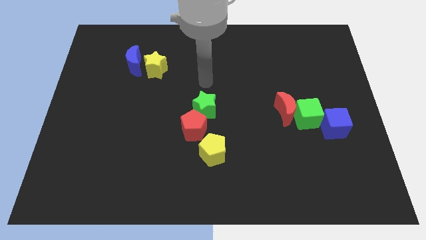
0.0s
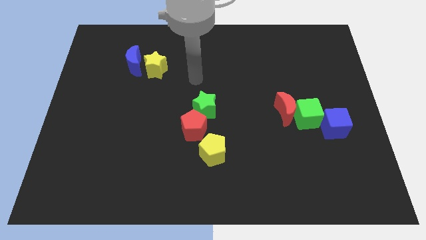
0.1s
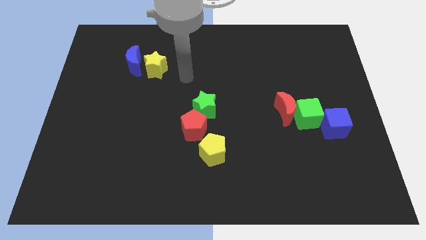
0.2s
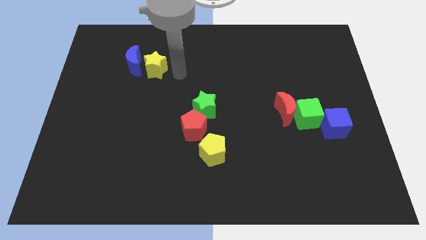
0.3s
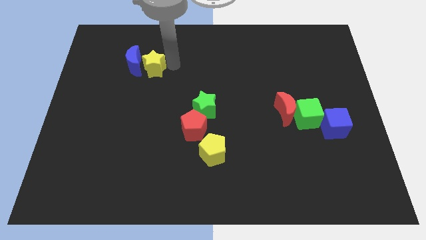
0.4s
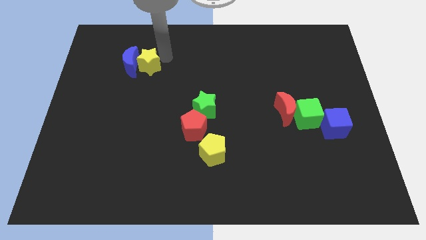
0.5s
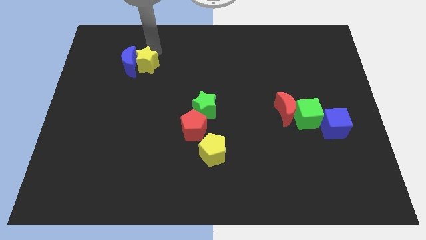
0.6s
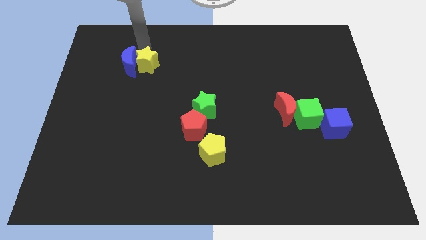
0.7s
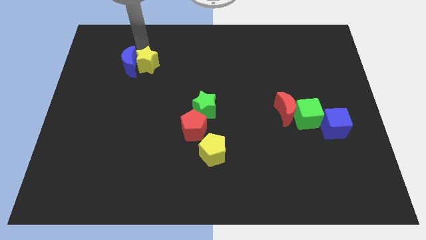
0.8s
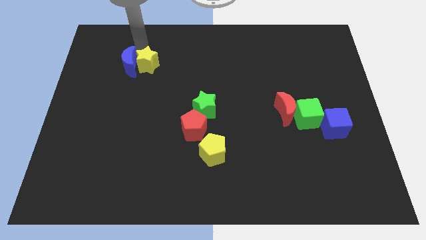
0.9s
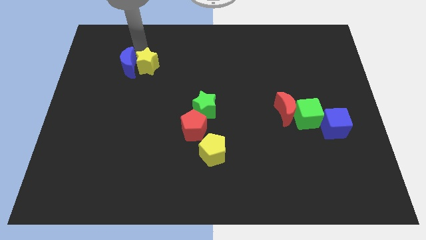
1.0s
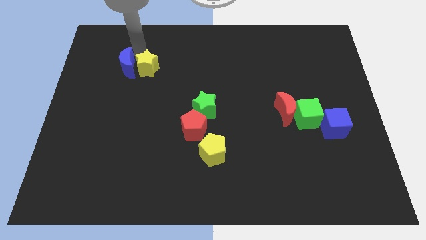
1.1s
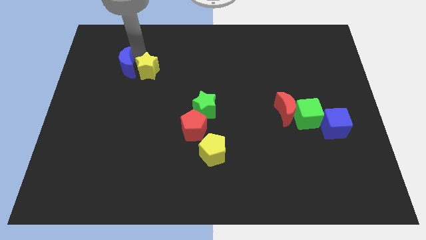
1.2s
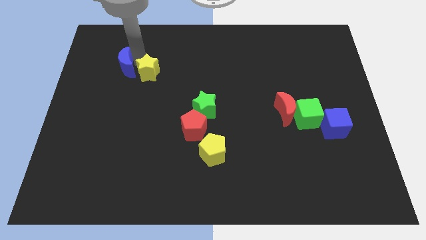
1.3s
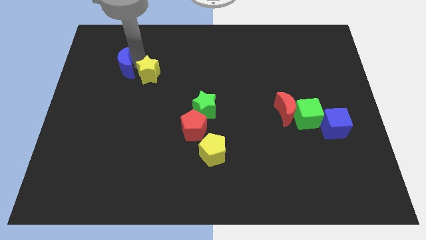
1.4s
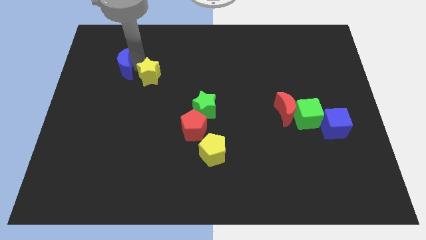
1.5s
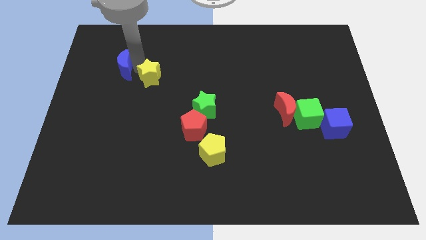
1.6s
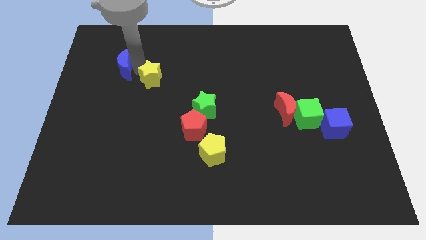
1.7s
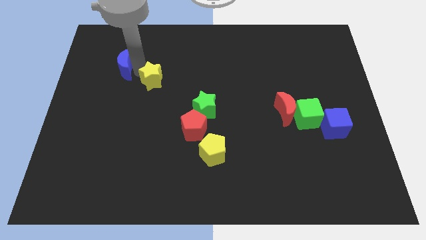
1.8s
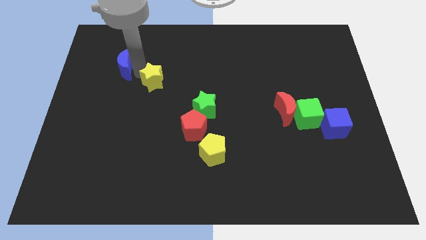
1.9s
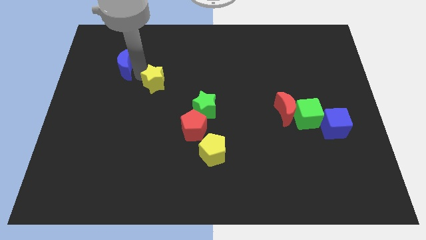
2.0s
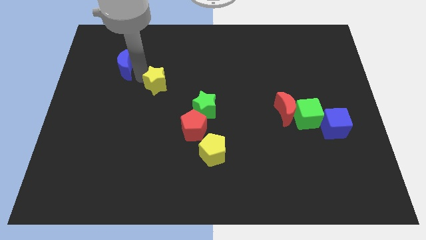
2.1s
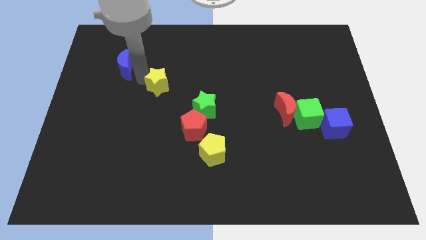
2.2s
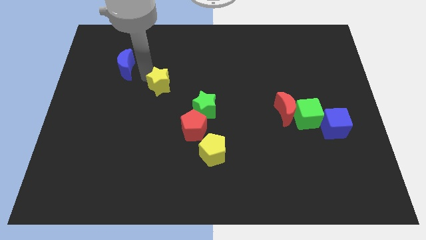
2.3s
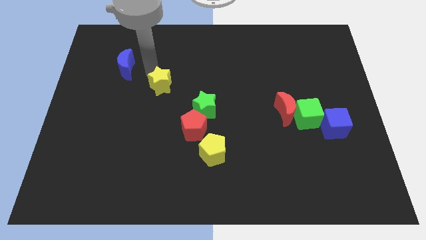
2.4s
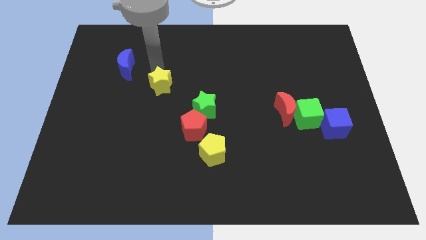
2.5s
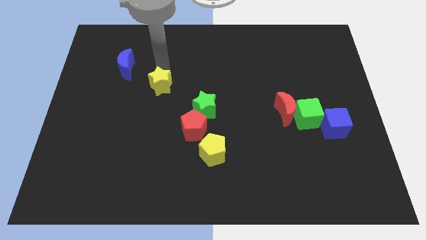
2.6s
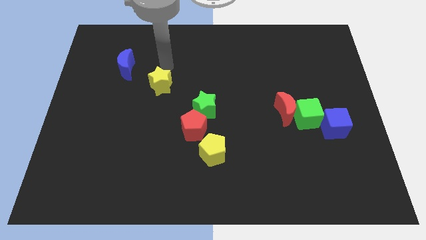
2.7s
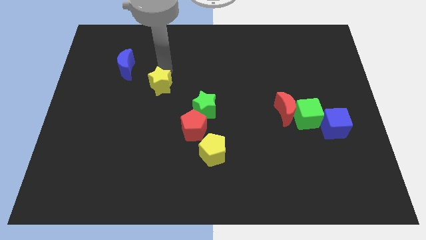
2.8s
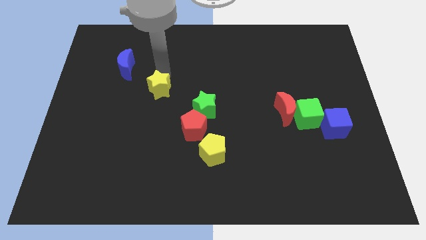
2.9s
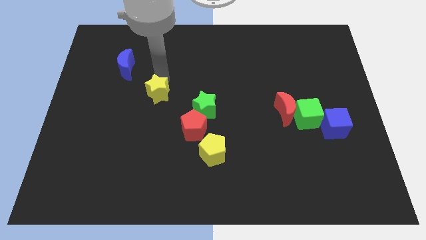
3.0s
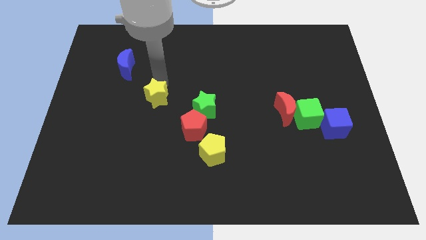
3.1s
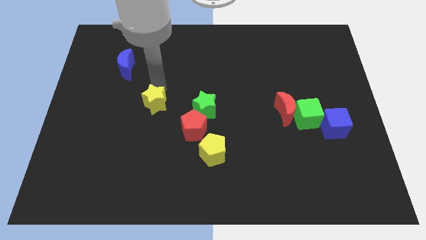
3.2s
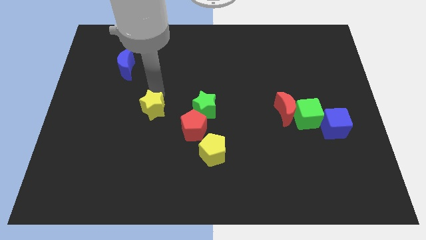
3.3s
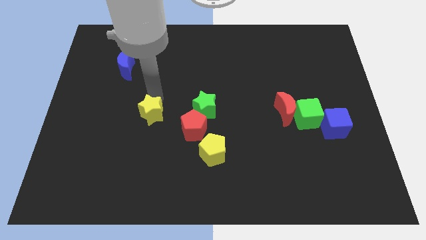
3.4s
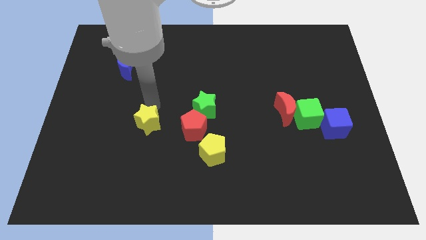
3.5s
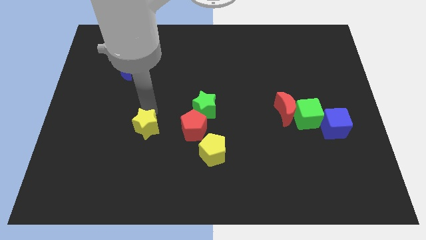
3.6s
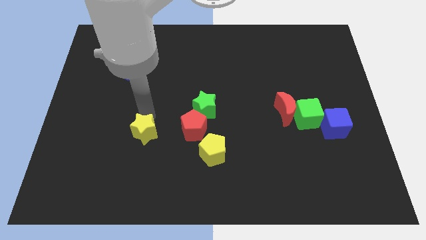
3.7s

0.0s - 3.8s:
slide the yellow star down

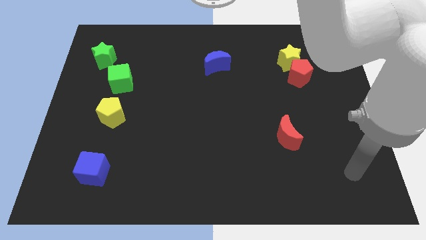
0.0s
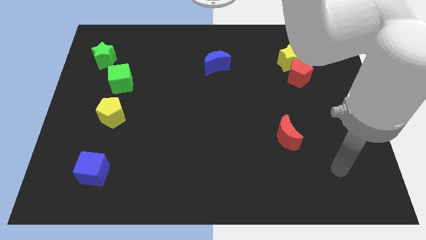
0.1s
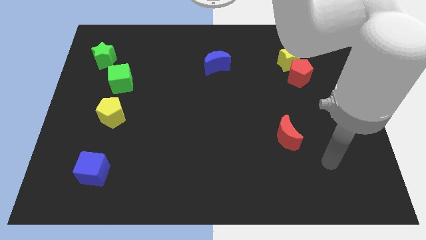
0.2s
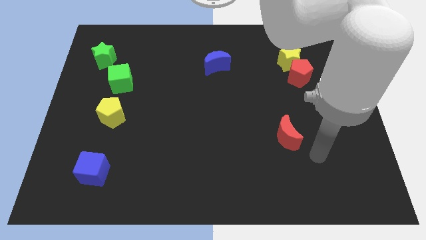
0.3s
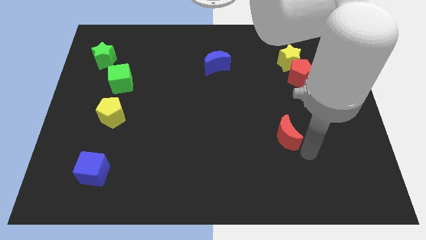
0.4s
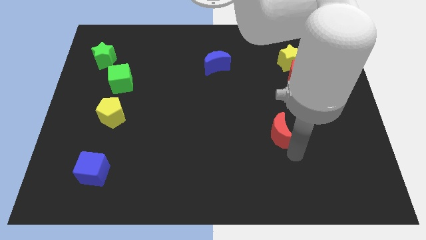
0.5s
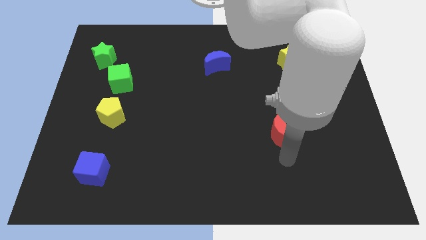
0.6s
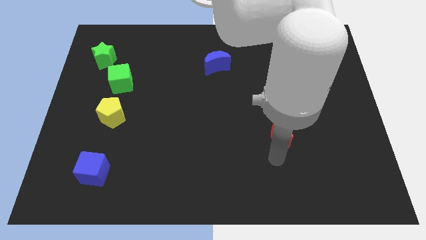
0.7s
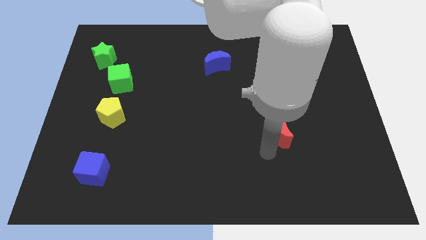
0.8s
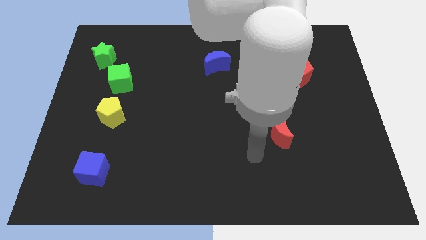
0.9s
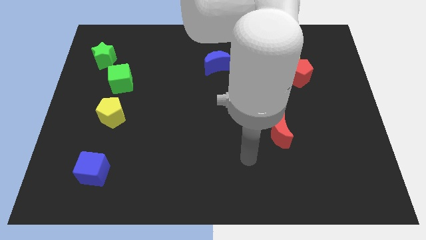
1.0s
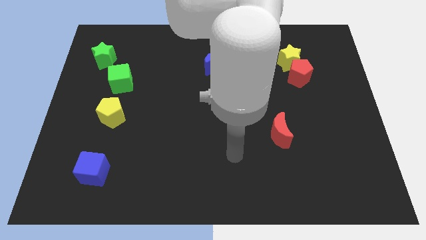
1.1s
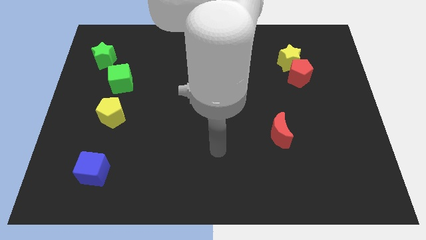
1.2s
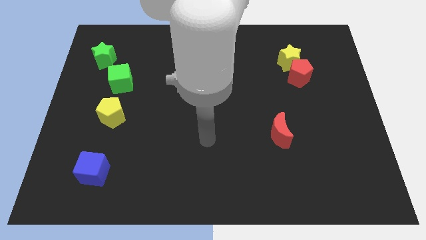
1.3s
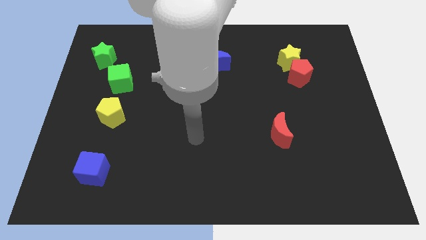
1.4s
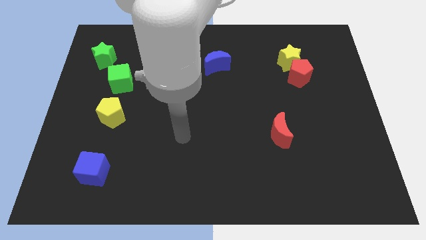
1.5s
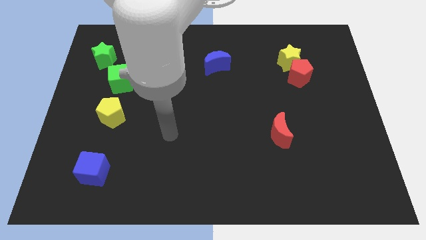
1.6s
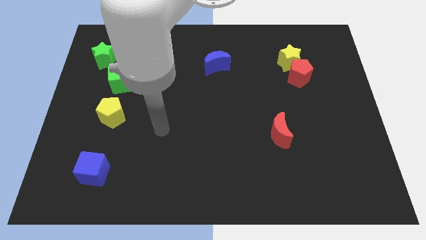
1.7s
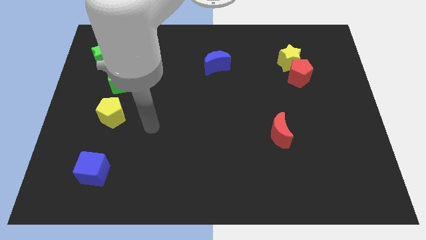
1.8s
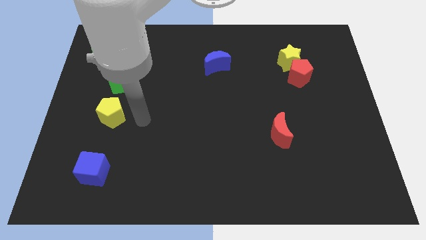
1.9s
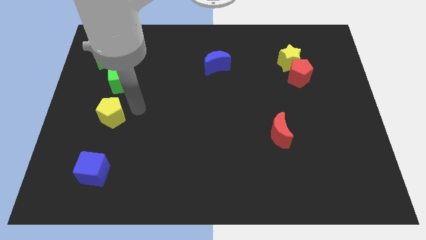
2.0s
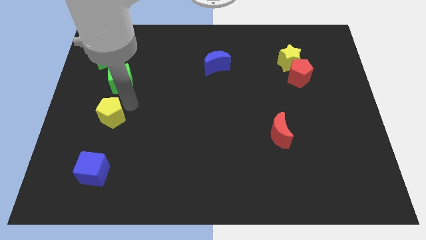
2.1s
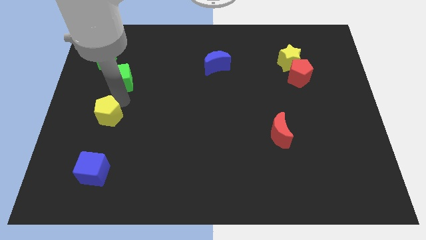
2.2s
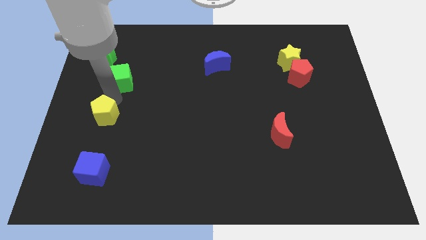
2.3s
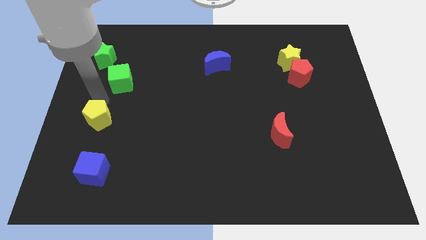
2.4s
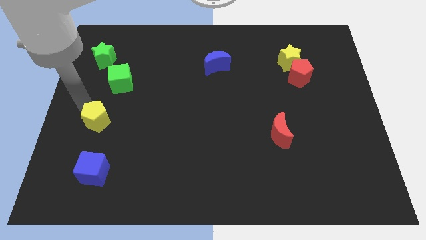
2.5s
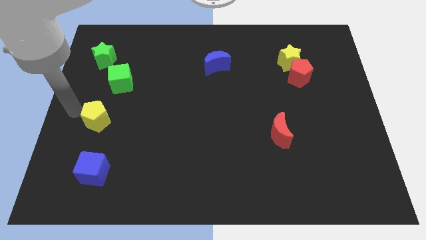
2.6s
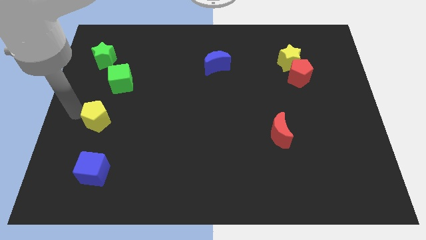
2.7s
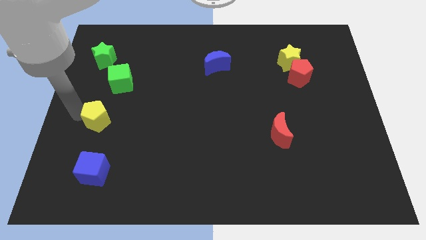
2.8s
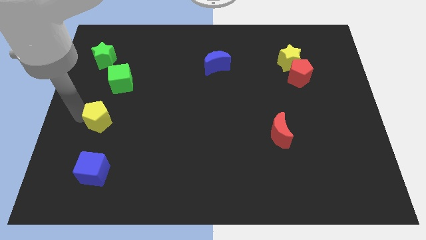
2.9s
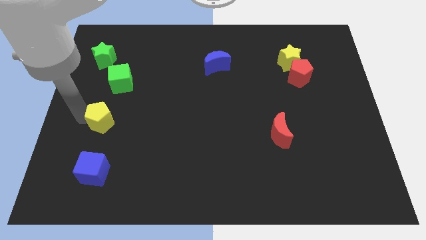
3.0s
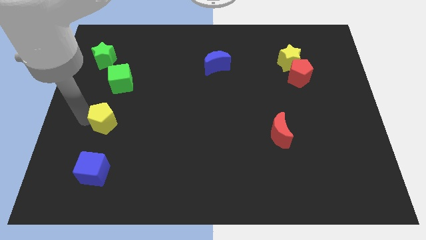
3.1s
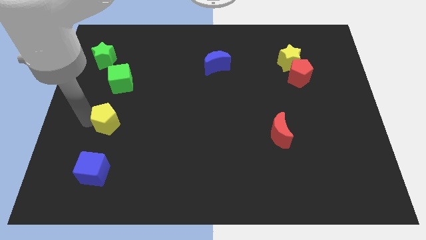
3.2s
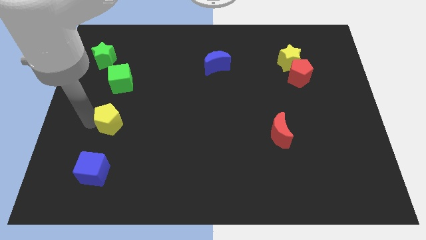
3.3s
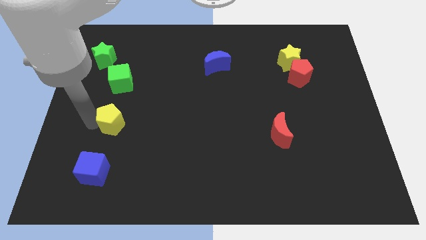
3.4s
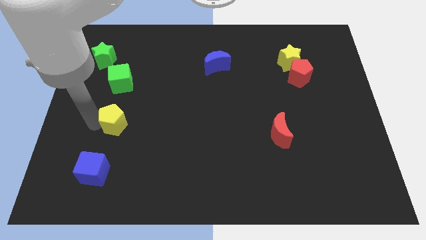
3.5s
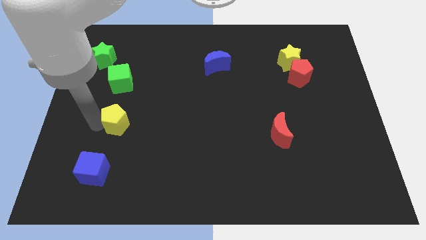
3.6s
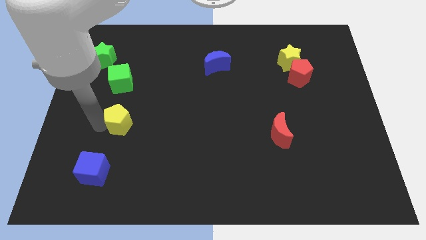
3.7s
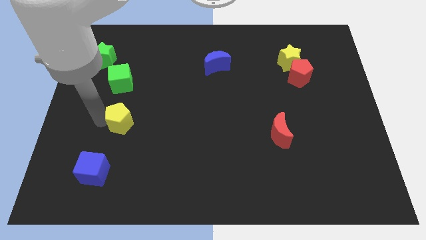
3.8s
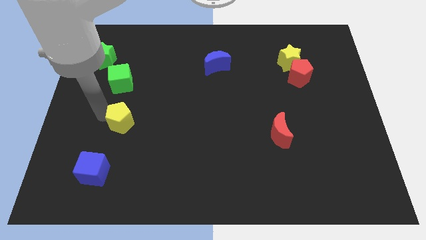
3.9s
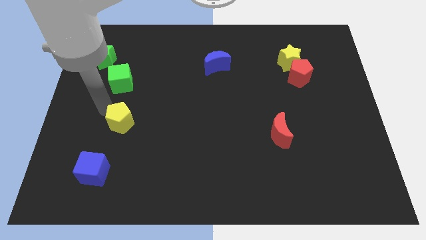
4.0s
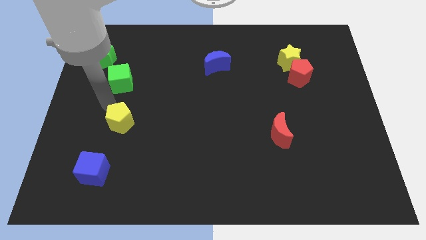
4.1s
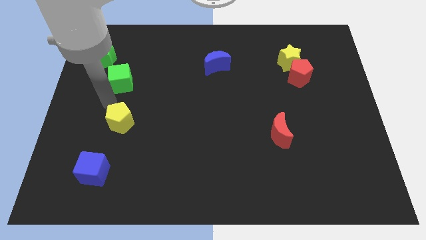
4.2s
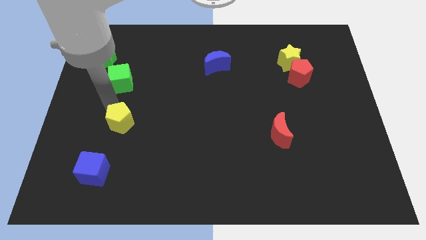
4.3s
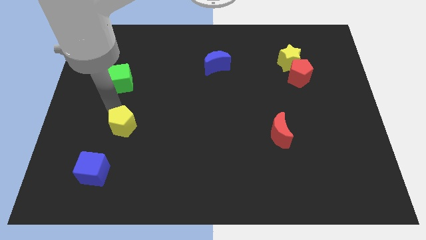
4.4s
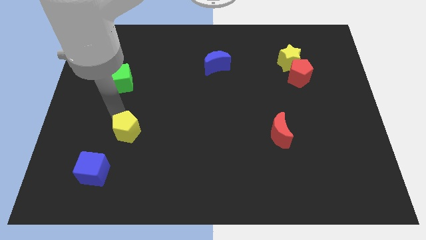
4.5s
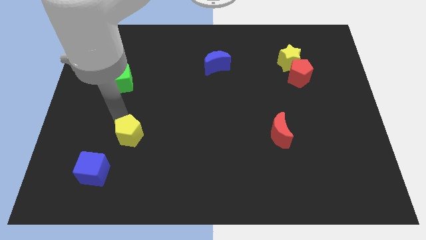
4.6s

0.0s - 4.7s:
slide the yellow pentagon down and then to the right a bit
